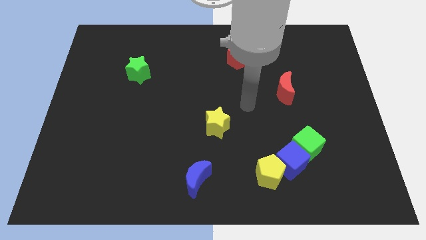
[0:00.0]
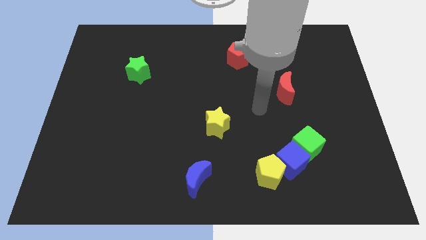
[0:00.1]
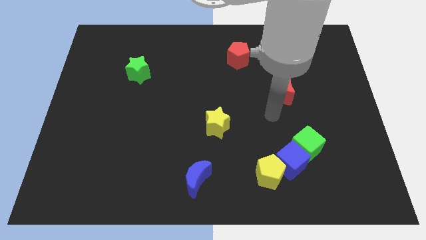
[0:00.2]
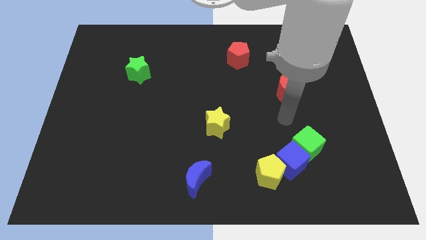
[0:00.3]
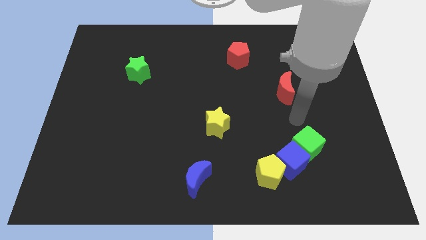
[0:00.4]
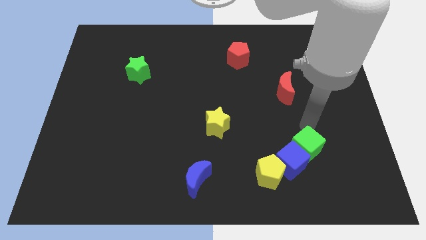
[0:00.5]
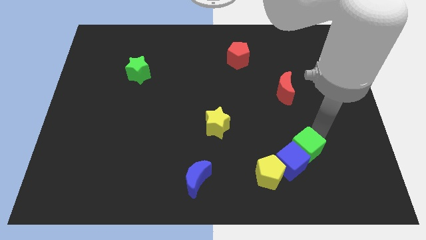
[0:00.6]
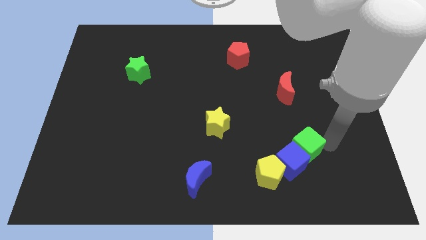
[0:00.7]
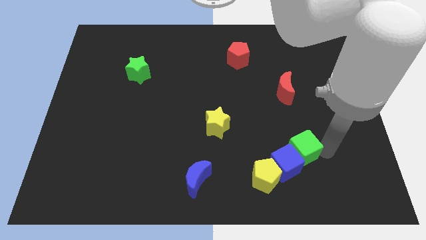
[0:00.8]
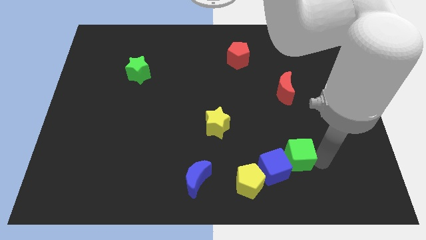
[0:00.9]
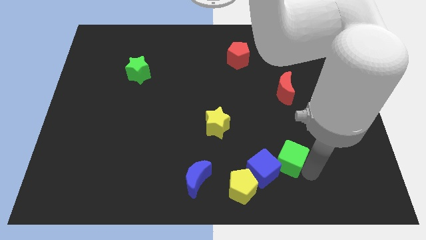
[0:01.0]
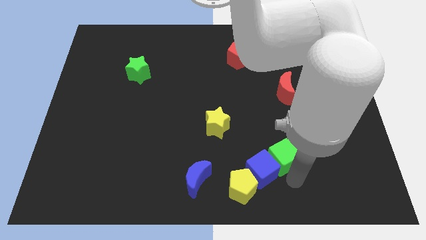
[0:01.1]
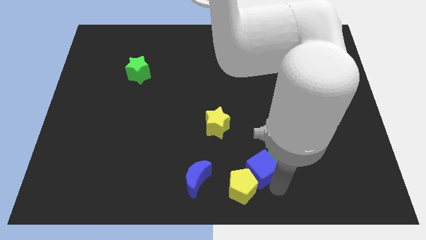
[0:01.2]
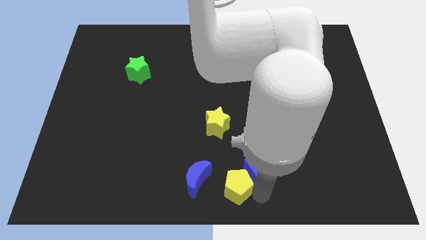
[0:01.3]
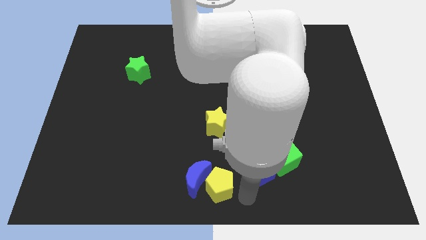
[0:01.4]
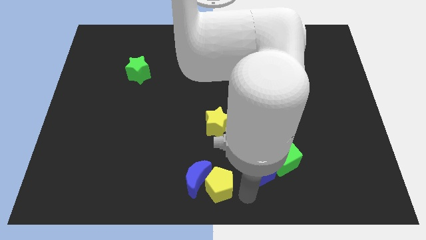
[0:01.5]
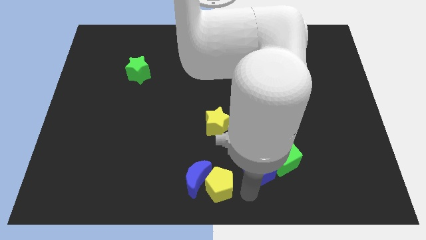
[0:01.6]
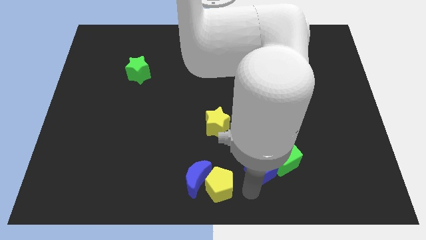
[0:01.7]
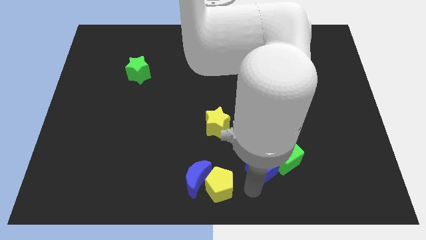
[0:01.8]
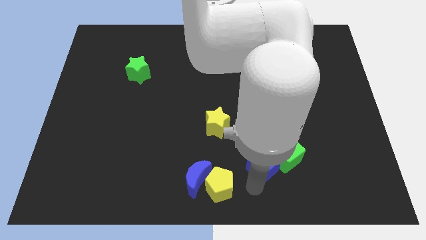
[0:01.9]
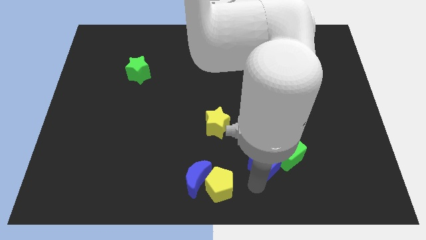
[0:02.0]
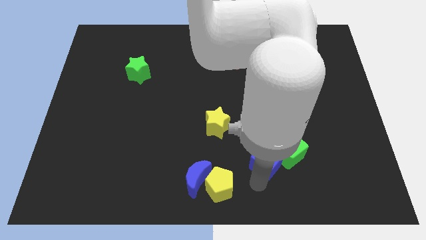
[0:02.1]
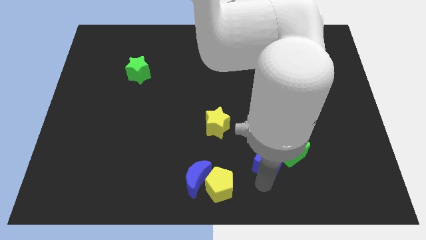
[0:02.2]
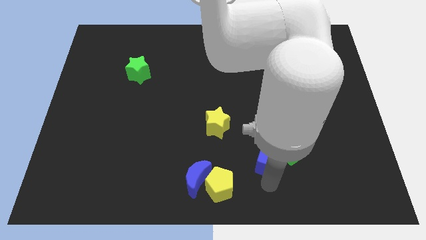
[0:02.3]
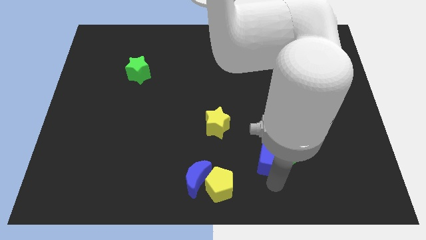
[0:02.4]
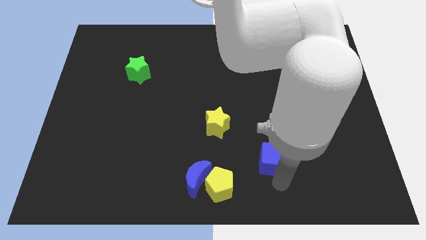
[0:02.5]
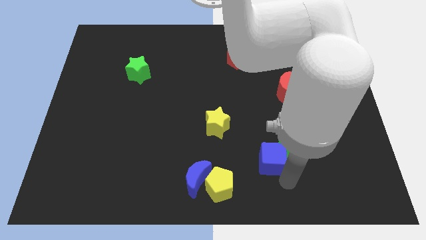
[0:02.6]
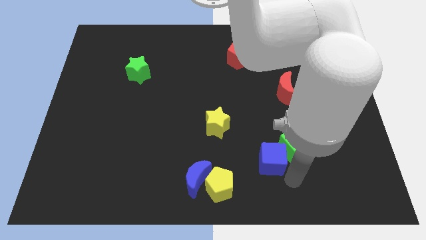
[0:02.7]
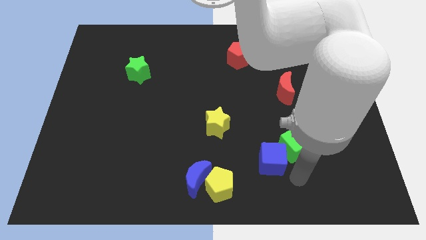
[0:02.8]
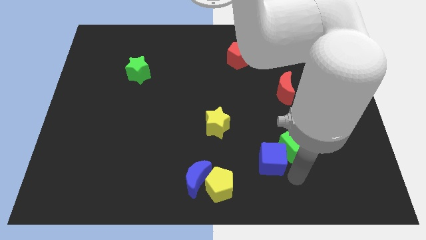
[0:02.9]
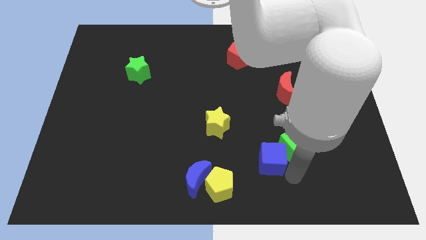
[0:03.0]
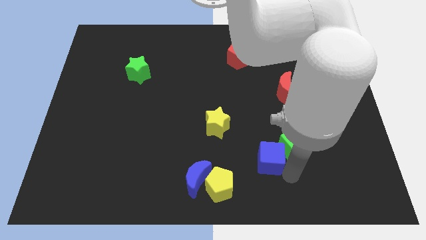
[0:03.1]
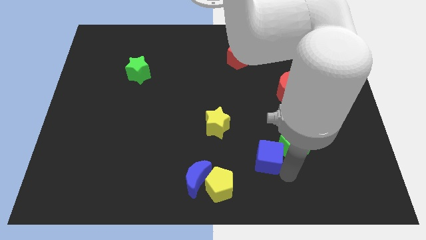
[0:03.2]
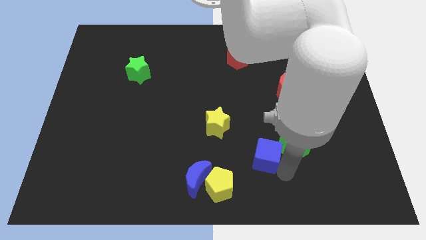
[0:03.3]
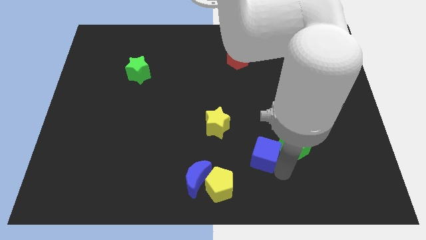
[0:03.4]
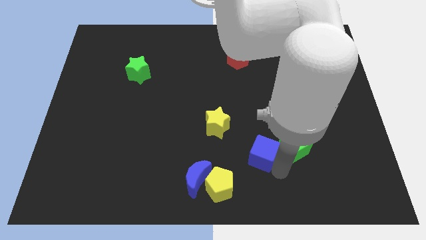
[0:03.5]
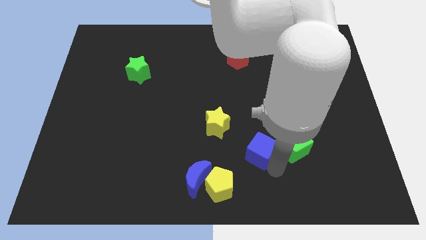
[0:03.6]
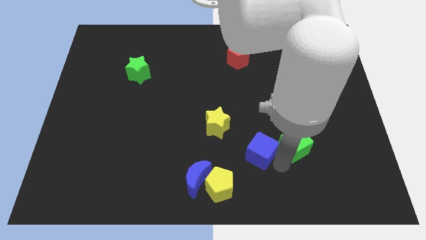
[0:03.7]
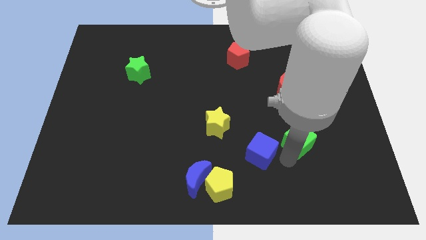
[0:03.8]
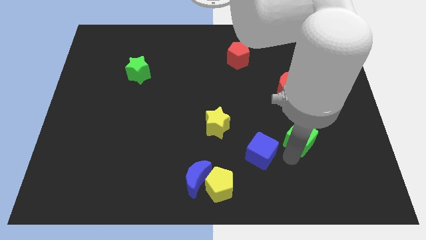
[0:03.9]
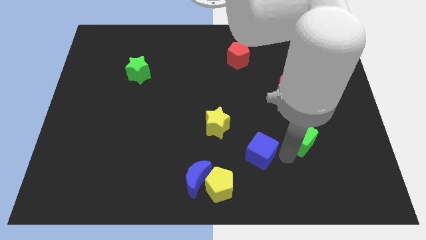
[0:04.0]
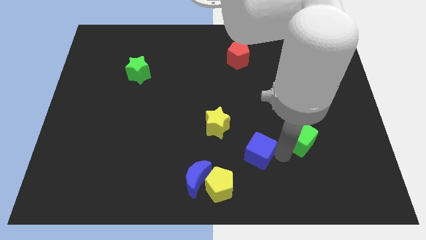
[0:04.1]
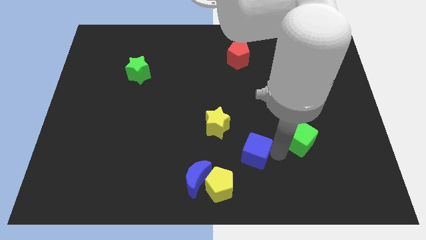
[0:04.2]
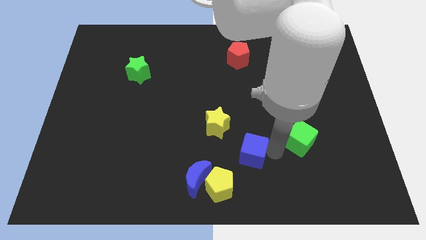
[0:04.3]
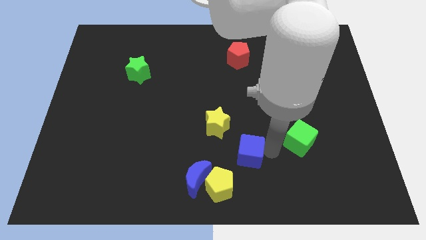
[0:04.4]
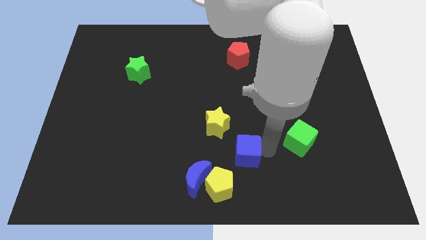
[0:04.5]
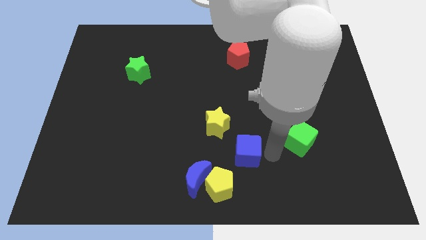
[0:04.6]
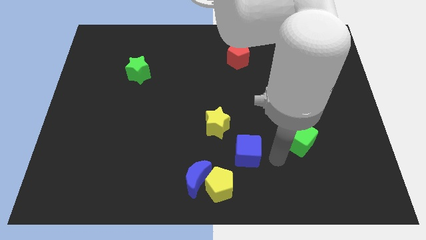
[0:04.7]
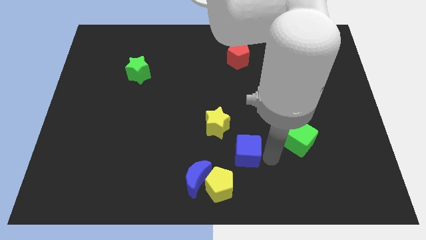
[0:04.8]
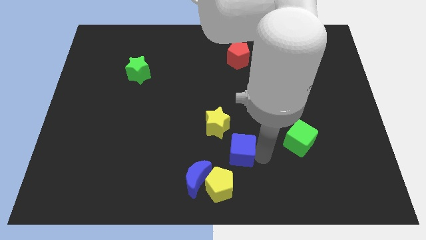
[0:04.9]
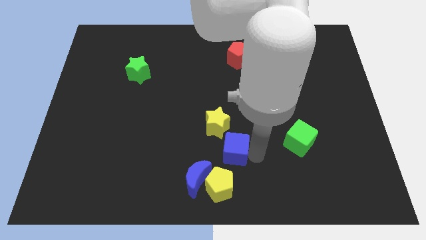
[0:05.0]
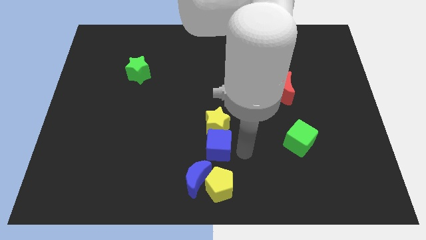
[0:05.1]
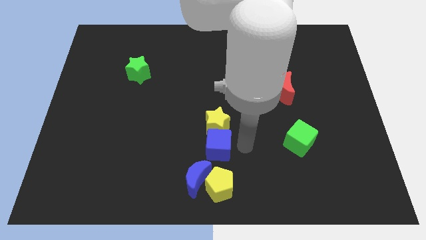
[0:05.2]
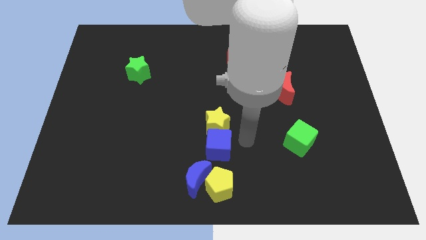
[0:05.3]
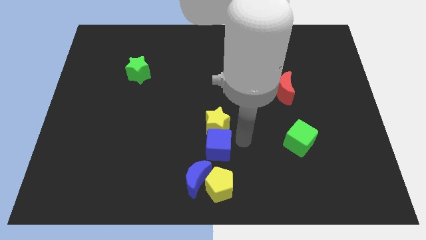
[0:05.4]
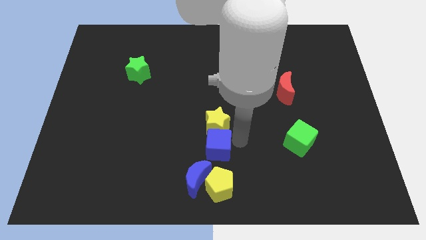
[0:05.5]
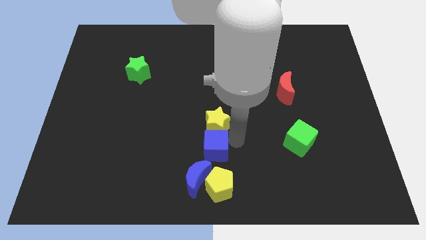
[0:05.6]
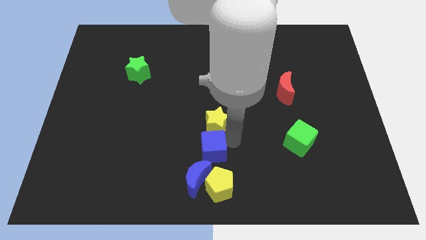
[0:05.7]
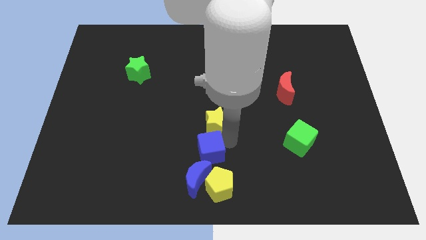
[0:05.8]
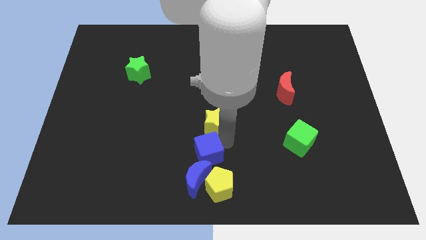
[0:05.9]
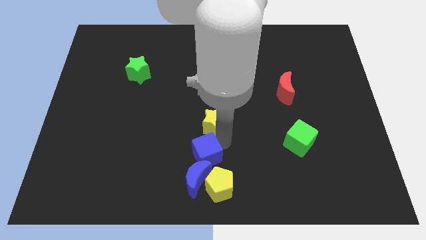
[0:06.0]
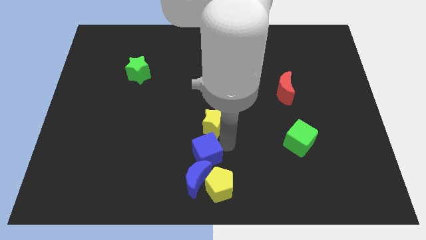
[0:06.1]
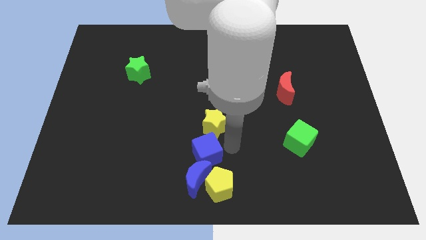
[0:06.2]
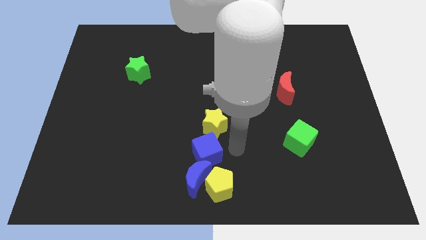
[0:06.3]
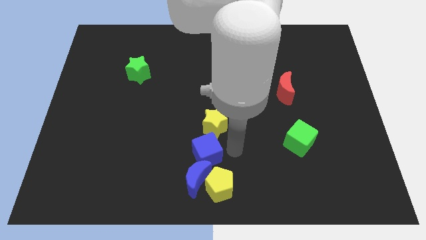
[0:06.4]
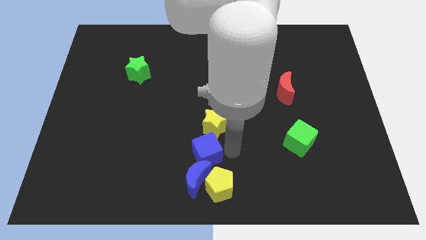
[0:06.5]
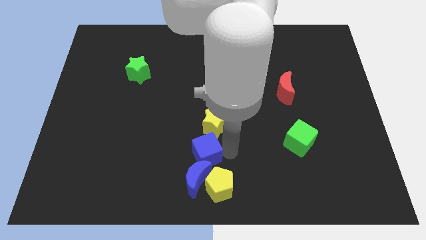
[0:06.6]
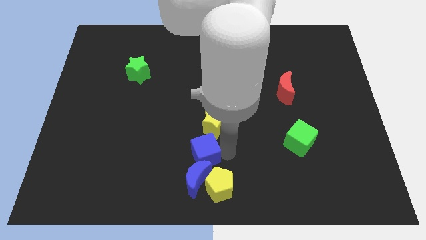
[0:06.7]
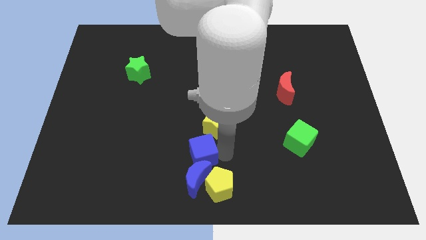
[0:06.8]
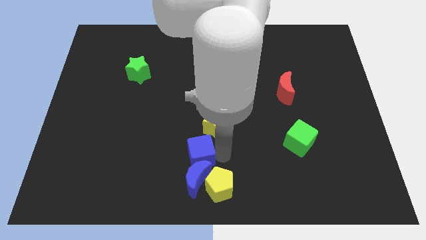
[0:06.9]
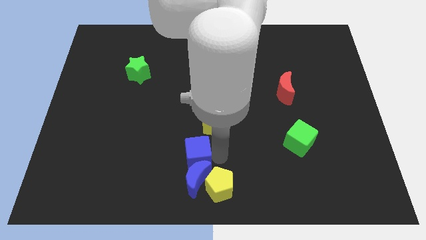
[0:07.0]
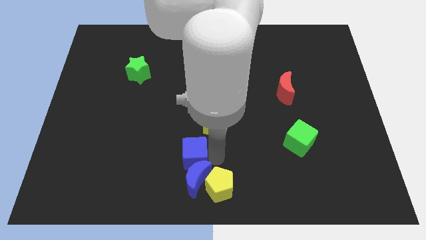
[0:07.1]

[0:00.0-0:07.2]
push the blue cube left

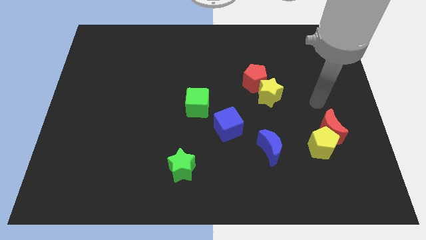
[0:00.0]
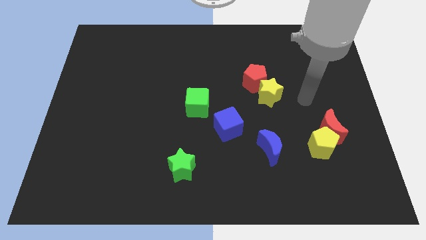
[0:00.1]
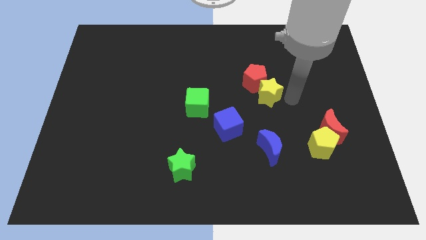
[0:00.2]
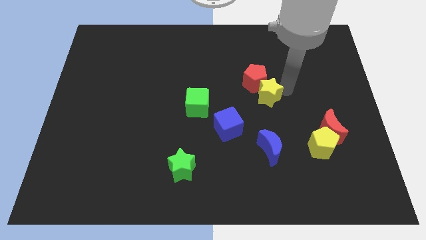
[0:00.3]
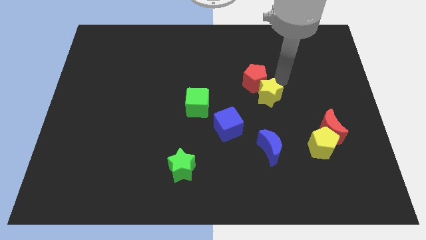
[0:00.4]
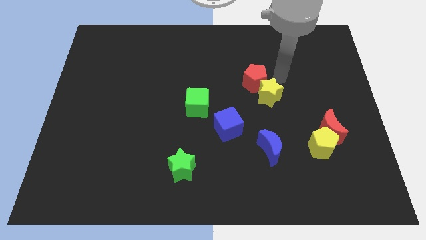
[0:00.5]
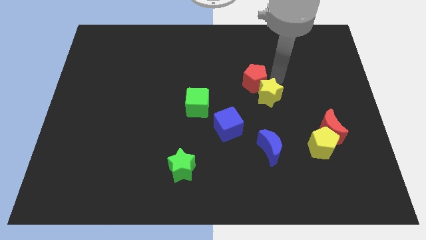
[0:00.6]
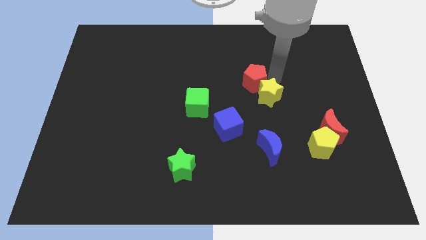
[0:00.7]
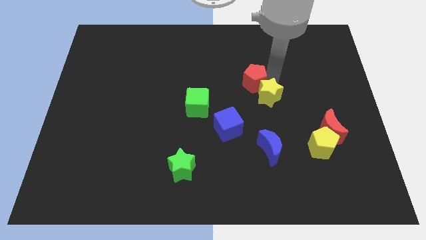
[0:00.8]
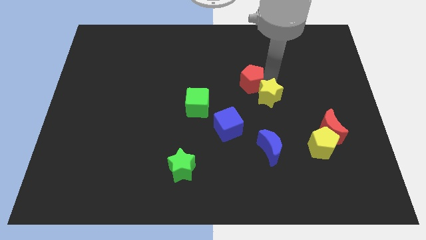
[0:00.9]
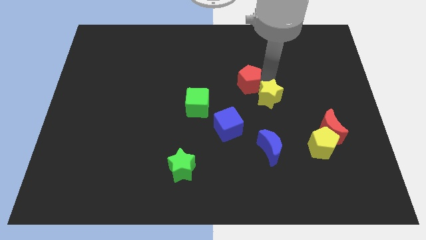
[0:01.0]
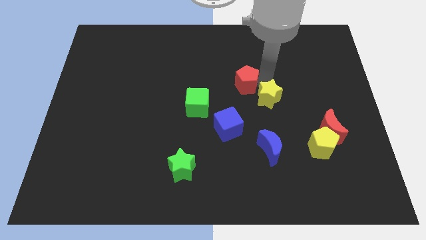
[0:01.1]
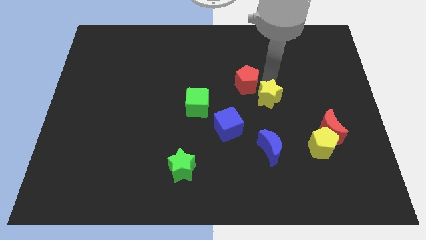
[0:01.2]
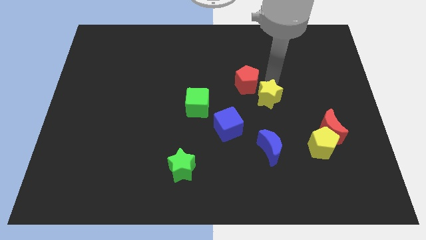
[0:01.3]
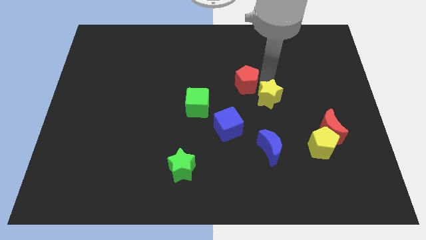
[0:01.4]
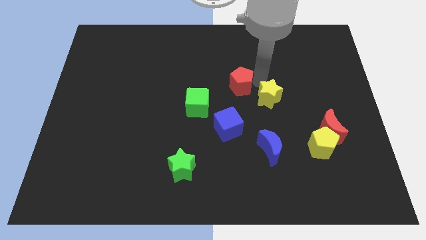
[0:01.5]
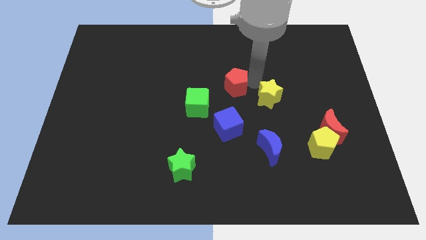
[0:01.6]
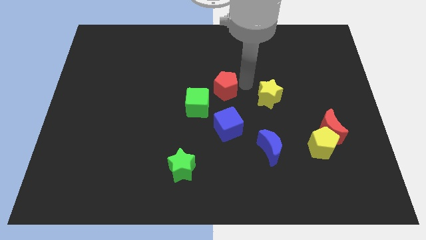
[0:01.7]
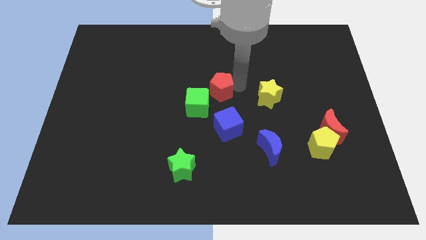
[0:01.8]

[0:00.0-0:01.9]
slightly push the red pentagon downwards and to the left diagonally
